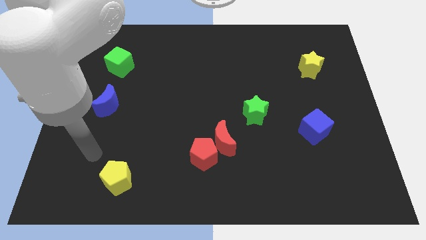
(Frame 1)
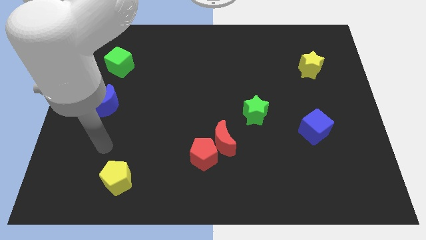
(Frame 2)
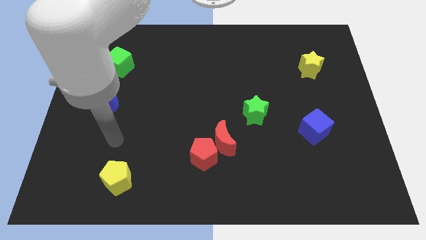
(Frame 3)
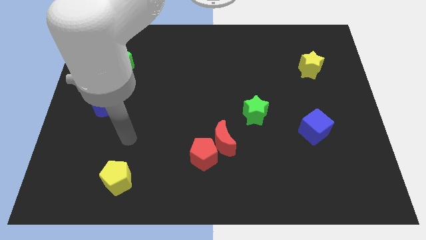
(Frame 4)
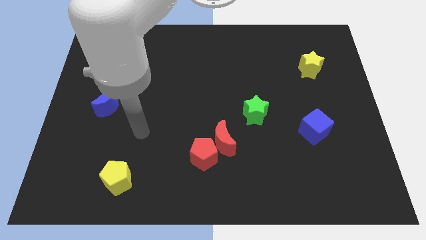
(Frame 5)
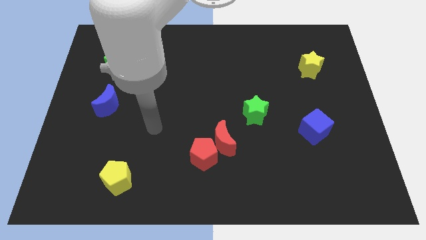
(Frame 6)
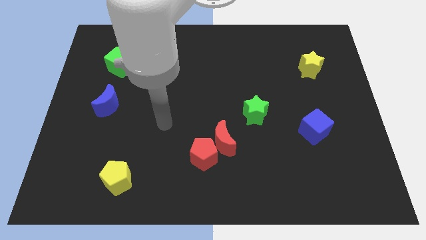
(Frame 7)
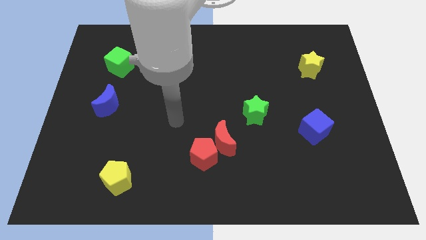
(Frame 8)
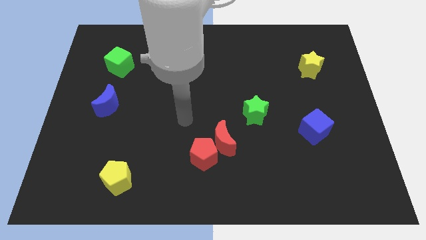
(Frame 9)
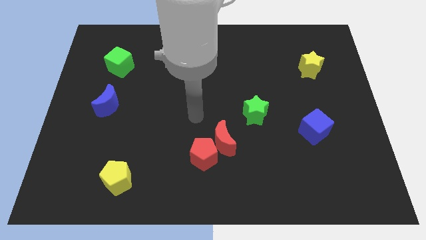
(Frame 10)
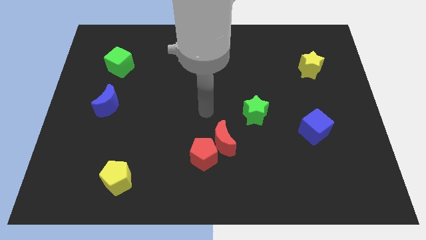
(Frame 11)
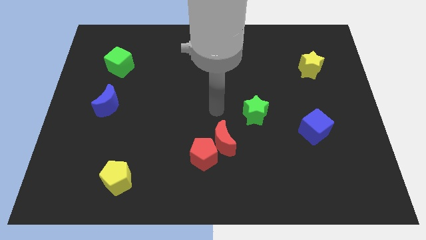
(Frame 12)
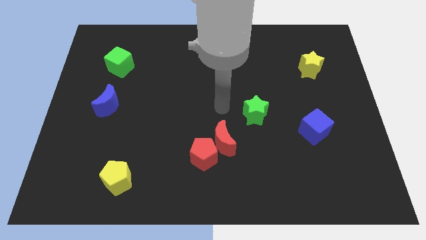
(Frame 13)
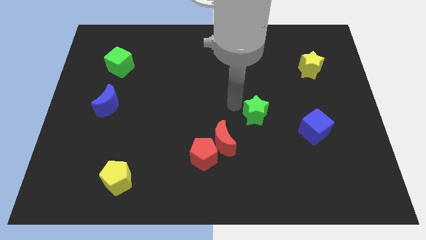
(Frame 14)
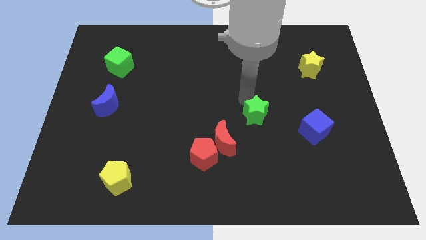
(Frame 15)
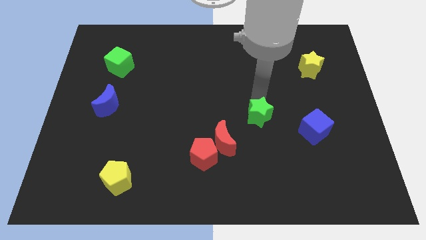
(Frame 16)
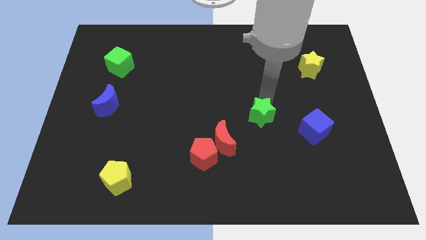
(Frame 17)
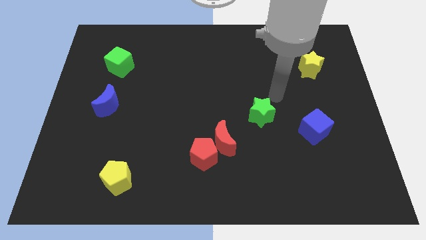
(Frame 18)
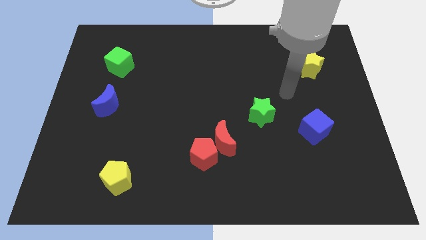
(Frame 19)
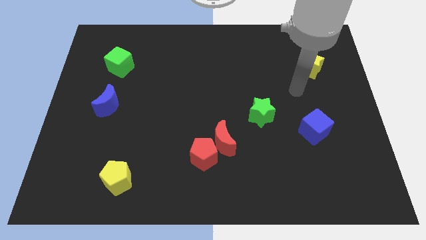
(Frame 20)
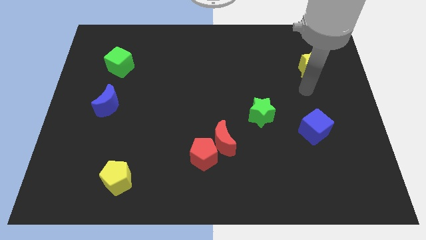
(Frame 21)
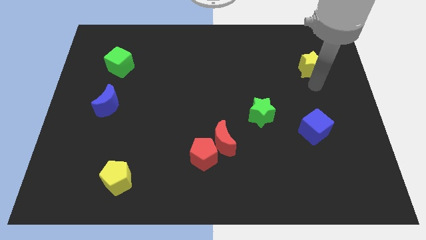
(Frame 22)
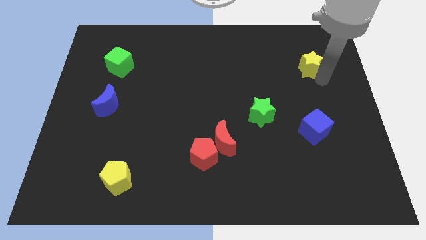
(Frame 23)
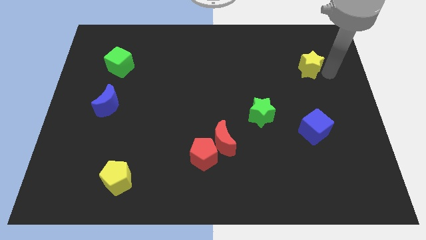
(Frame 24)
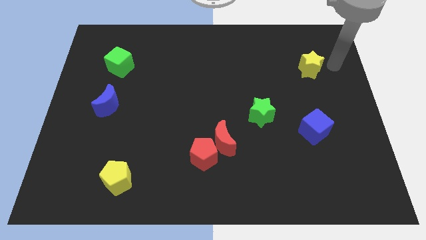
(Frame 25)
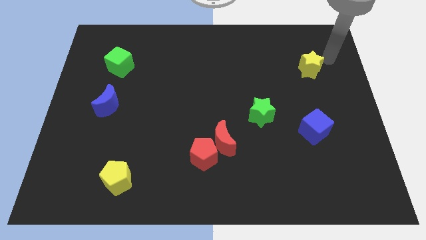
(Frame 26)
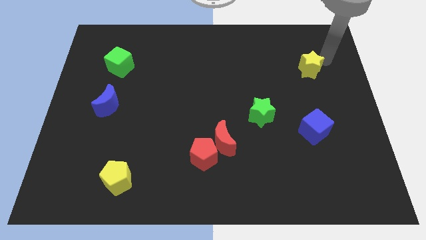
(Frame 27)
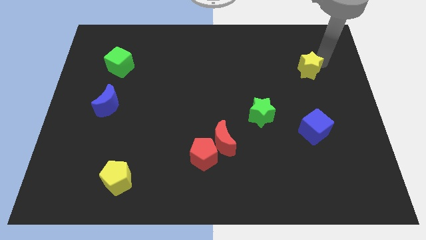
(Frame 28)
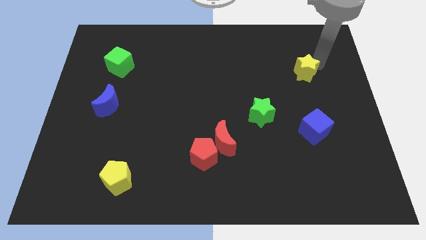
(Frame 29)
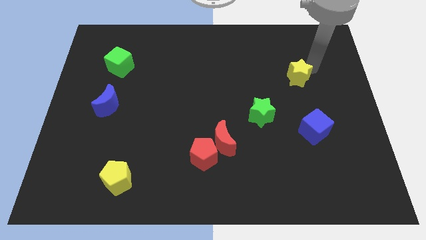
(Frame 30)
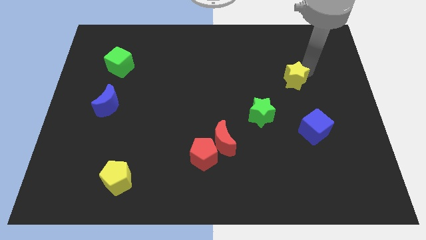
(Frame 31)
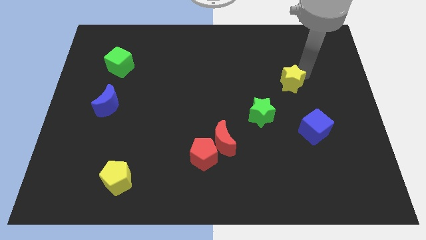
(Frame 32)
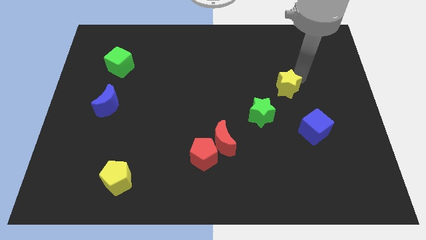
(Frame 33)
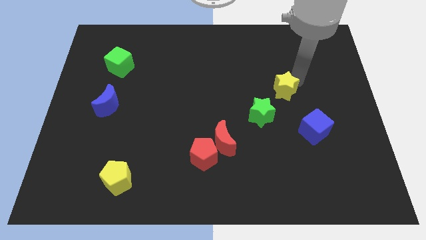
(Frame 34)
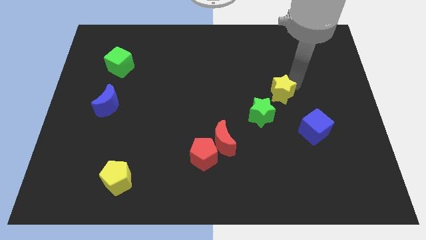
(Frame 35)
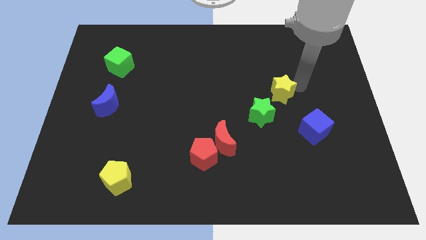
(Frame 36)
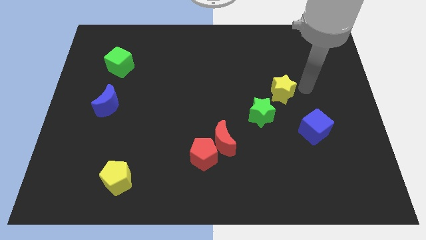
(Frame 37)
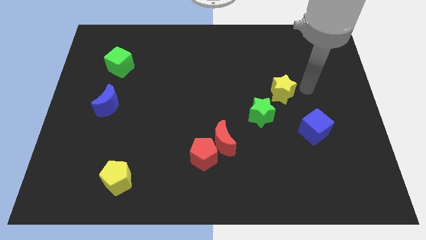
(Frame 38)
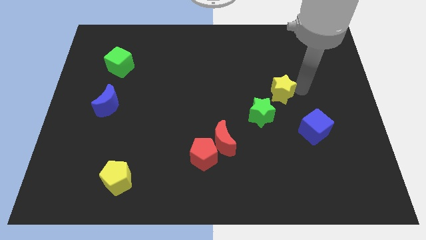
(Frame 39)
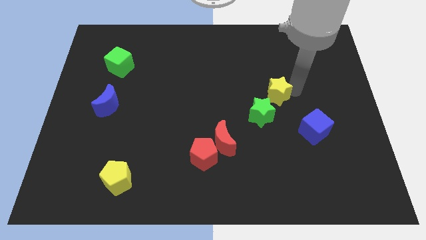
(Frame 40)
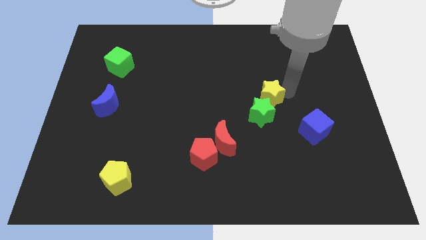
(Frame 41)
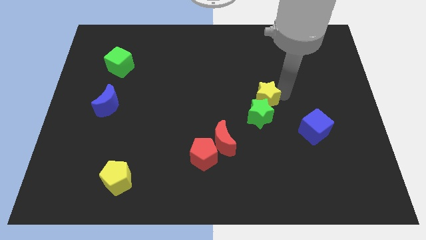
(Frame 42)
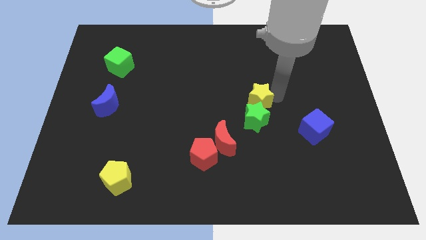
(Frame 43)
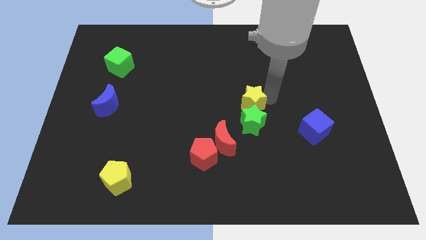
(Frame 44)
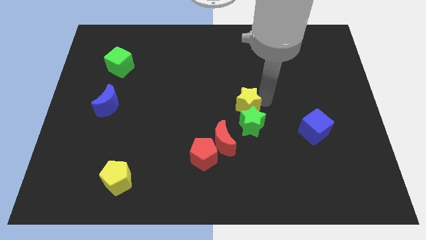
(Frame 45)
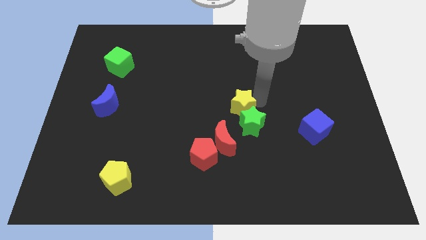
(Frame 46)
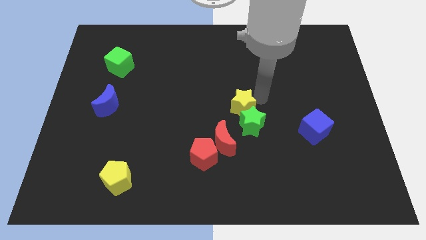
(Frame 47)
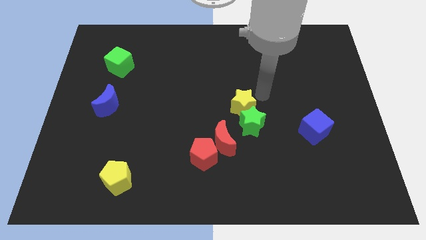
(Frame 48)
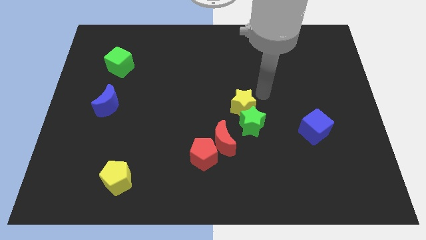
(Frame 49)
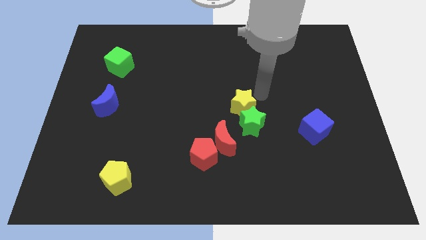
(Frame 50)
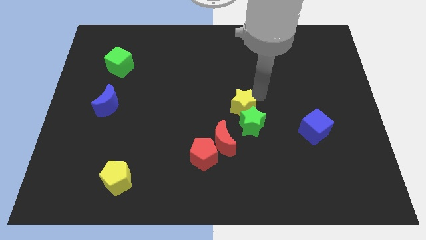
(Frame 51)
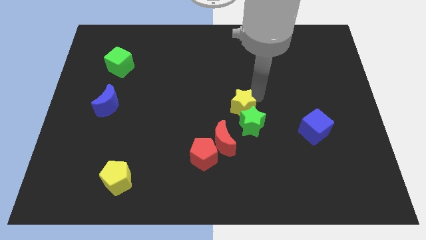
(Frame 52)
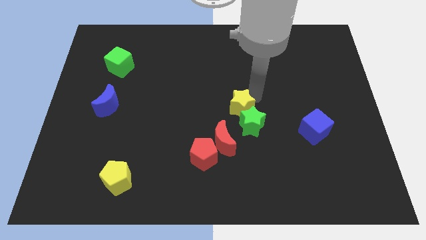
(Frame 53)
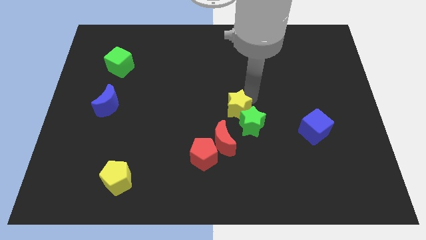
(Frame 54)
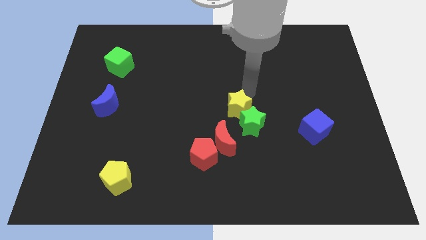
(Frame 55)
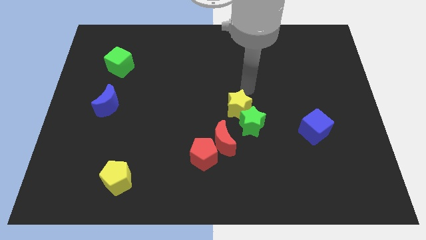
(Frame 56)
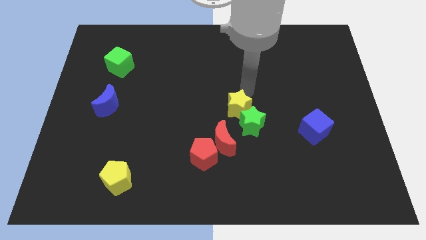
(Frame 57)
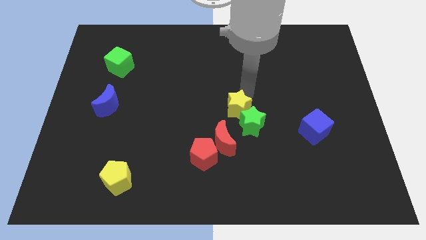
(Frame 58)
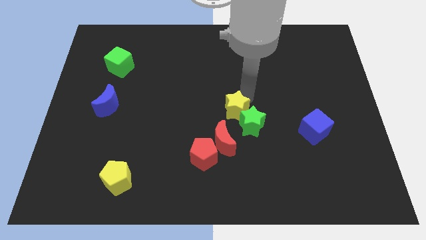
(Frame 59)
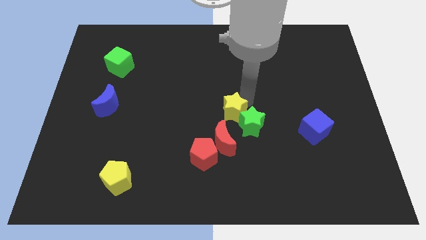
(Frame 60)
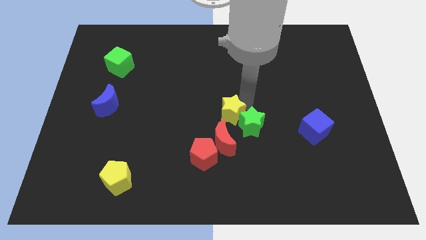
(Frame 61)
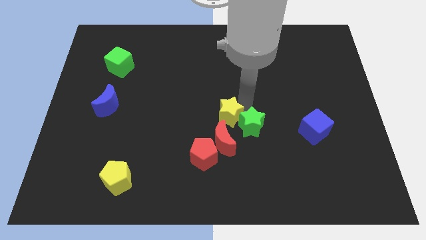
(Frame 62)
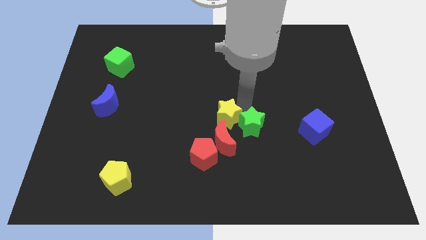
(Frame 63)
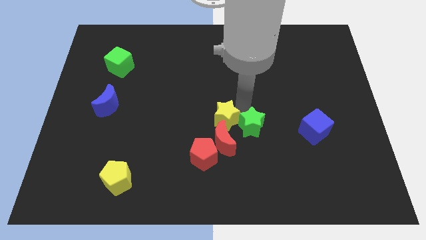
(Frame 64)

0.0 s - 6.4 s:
put the yellow star towards the red moon
